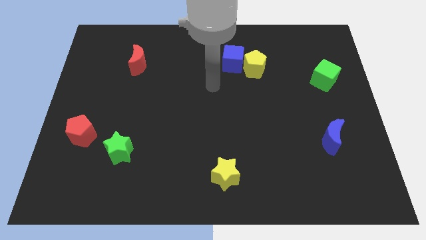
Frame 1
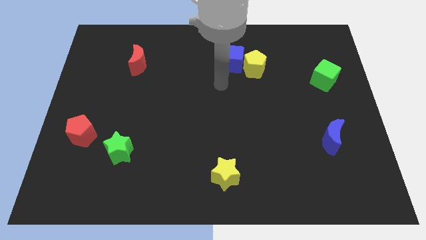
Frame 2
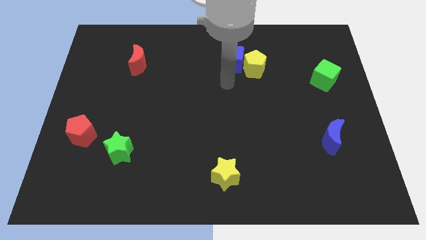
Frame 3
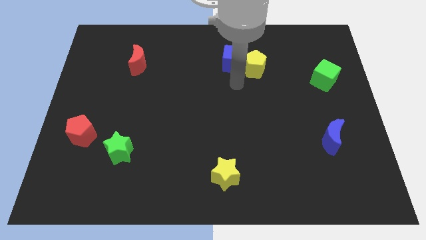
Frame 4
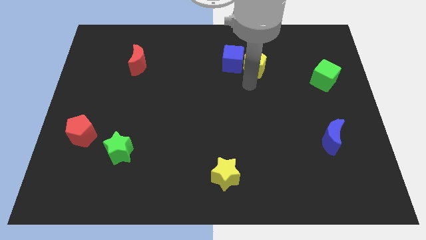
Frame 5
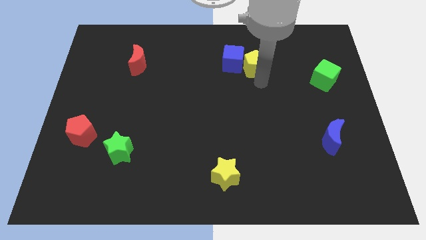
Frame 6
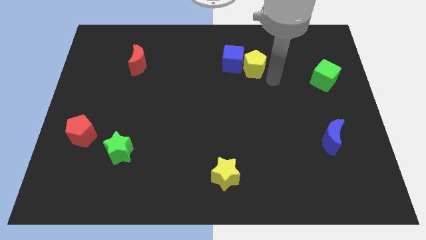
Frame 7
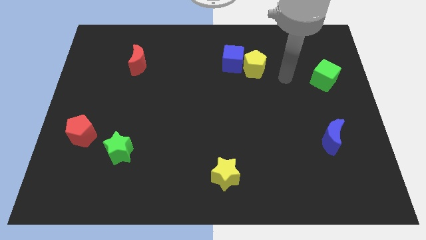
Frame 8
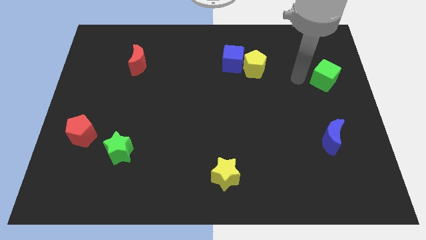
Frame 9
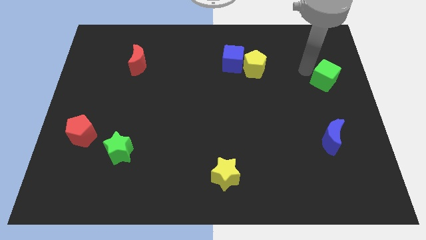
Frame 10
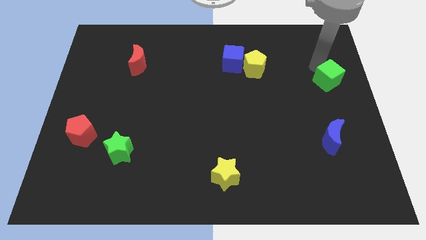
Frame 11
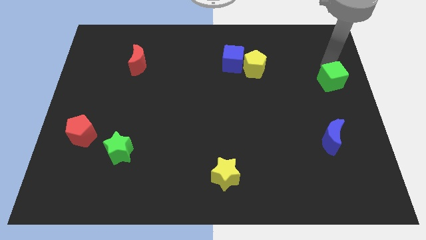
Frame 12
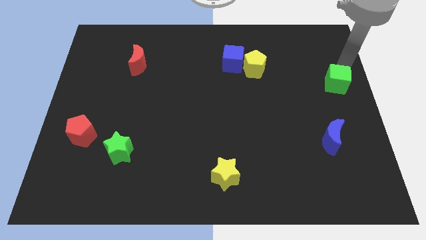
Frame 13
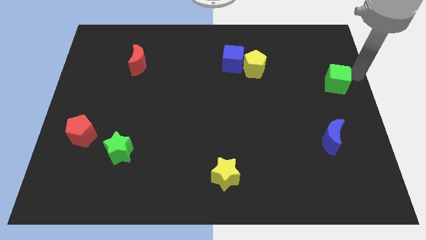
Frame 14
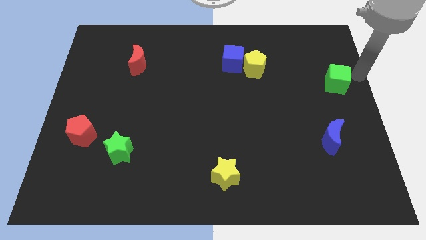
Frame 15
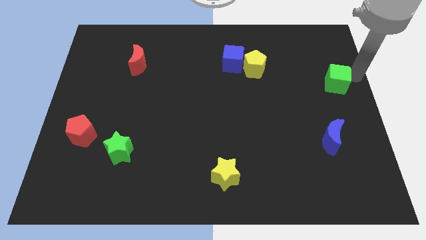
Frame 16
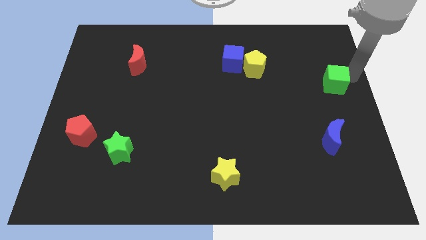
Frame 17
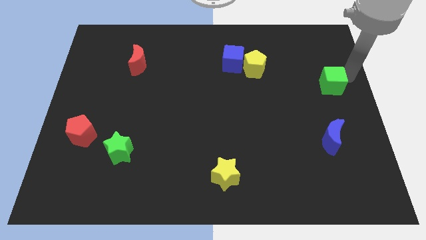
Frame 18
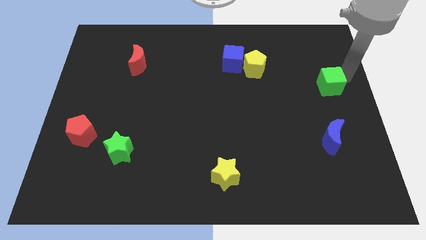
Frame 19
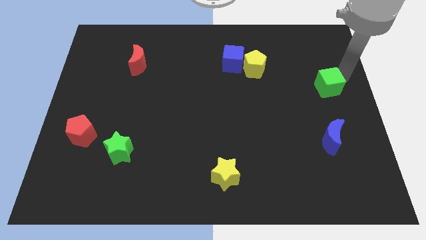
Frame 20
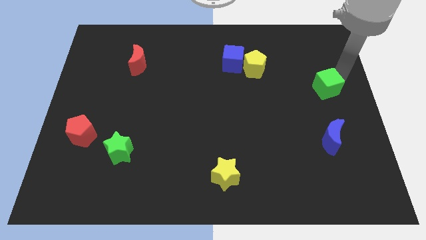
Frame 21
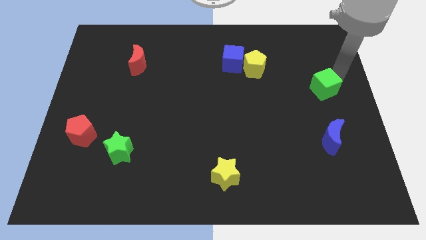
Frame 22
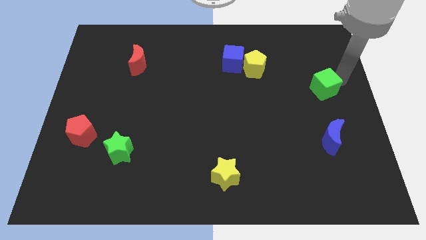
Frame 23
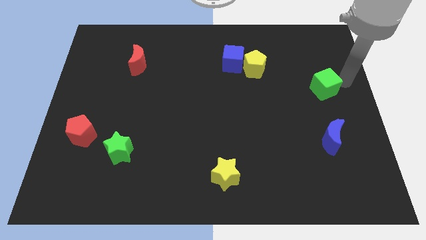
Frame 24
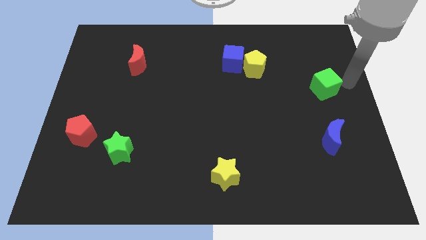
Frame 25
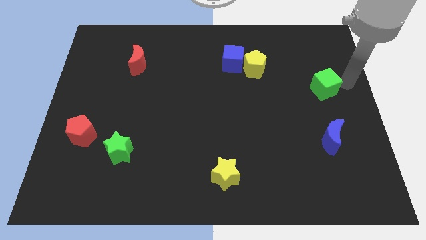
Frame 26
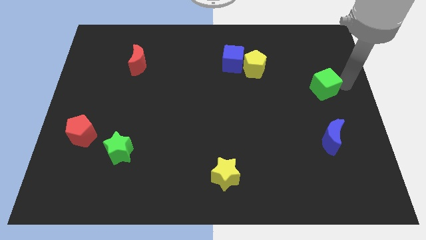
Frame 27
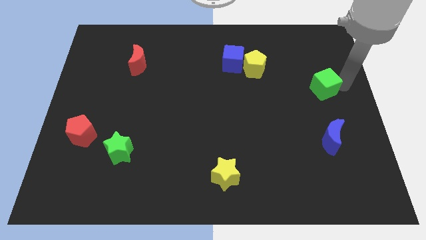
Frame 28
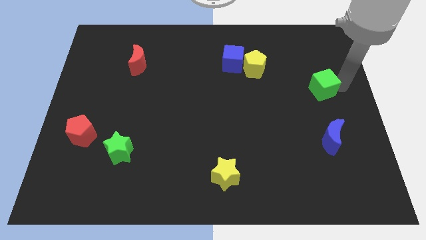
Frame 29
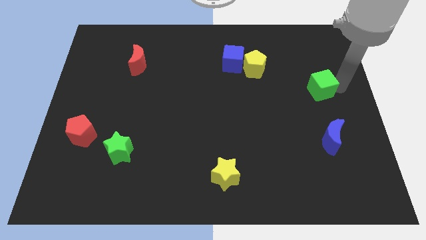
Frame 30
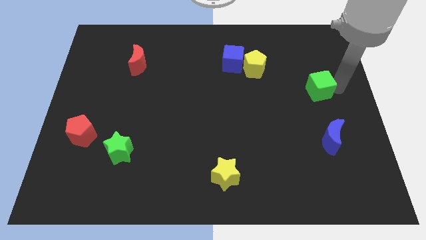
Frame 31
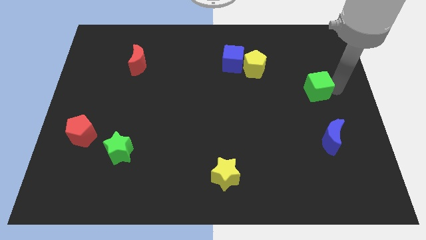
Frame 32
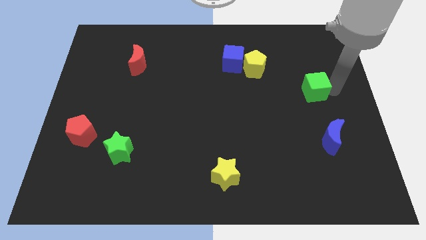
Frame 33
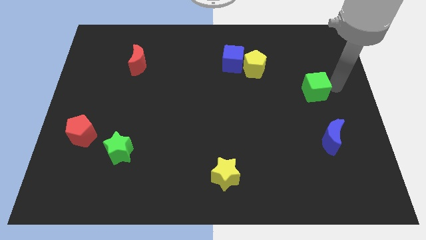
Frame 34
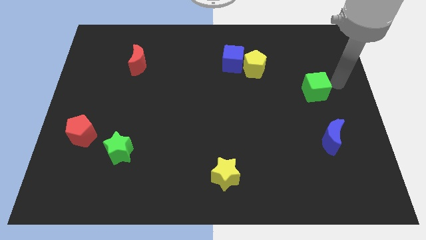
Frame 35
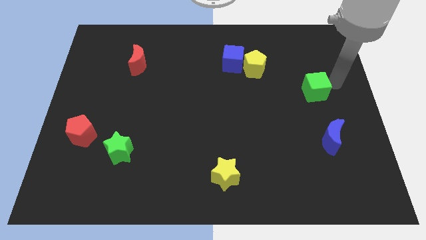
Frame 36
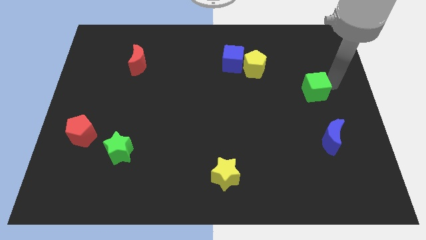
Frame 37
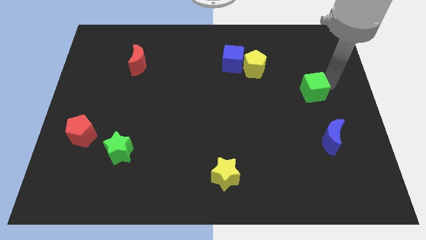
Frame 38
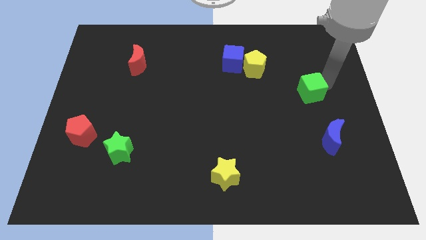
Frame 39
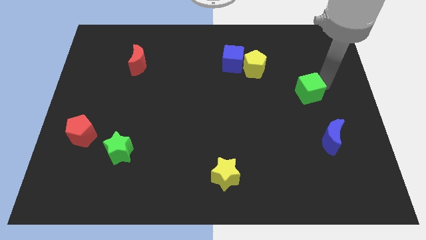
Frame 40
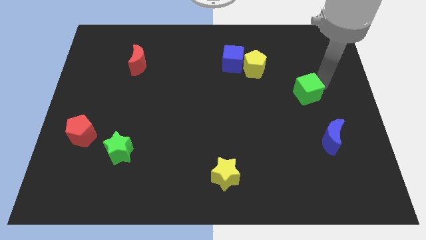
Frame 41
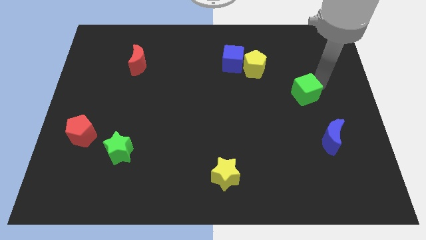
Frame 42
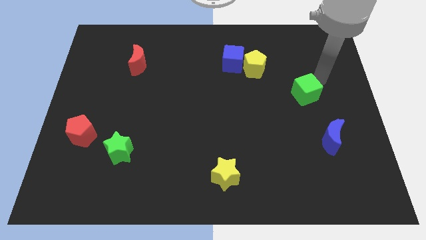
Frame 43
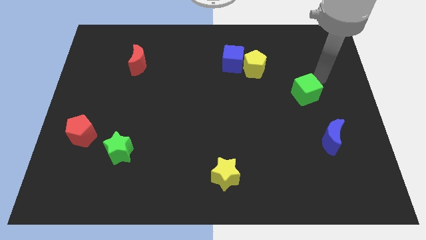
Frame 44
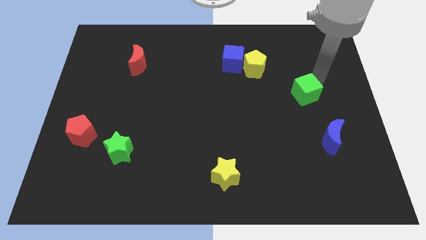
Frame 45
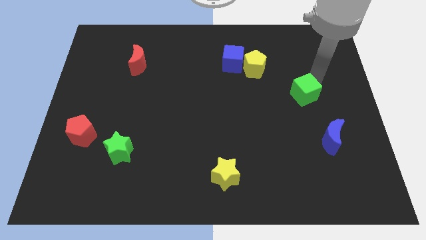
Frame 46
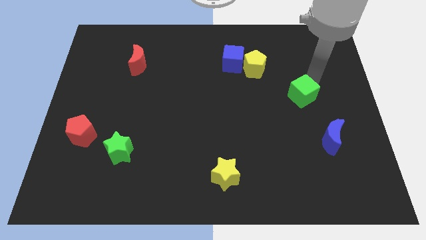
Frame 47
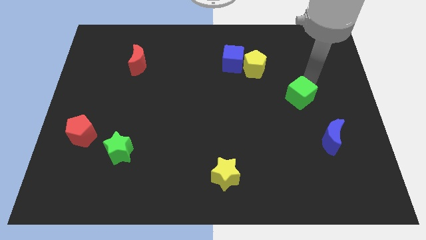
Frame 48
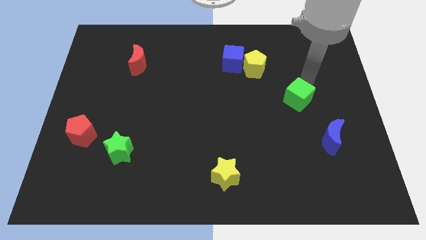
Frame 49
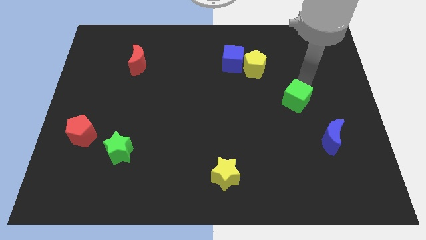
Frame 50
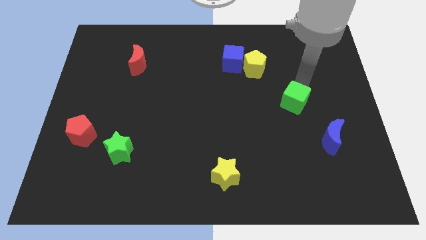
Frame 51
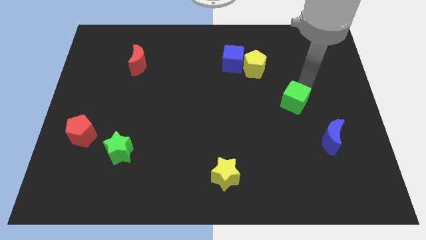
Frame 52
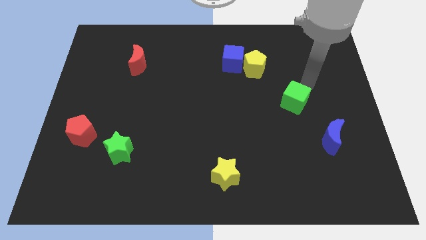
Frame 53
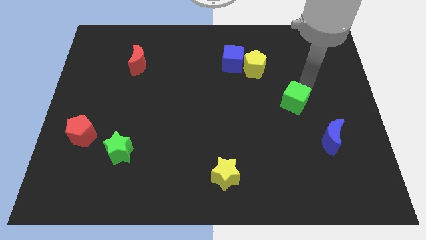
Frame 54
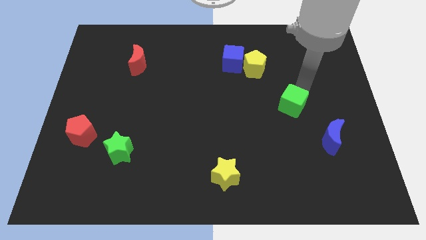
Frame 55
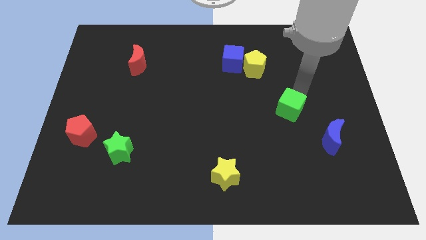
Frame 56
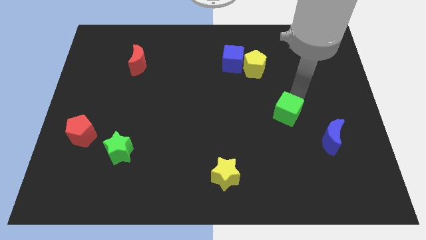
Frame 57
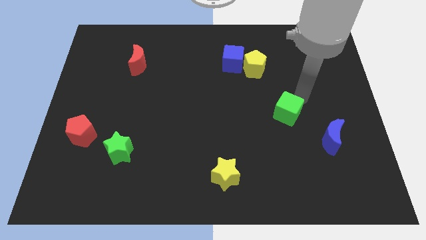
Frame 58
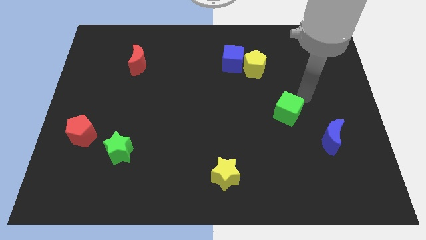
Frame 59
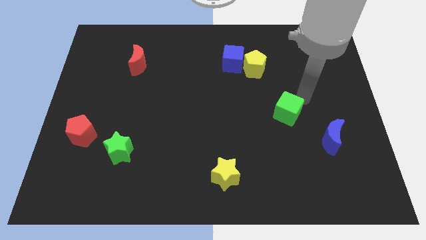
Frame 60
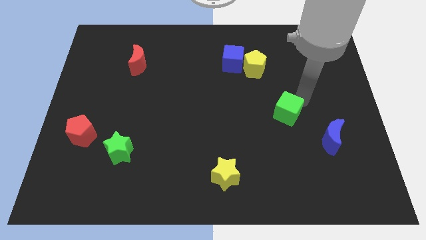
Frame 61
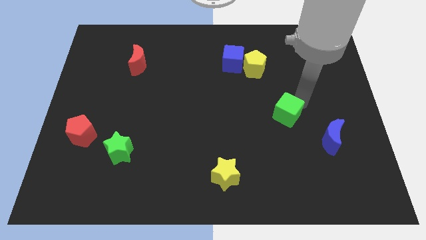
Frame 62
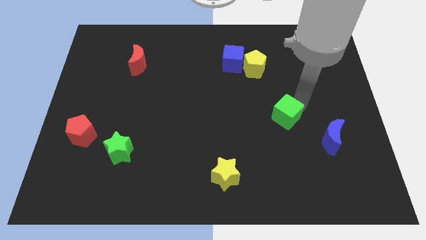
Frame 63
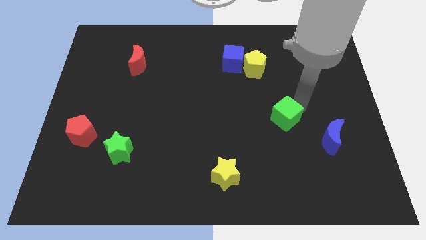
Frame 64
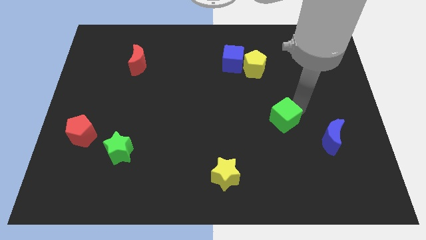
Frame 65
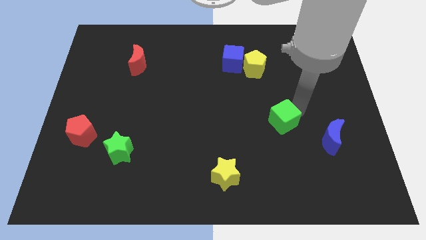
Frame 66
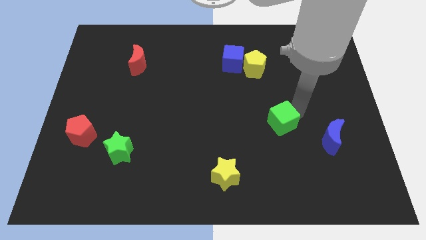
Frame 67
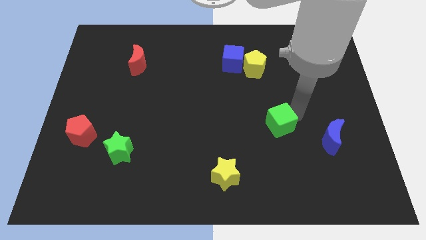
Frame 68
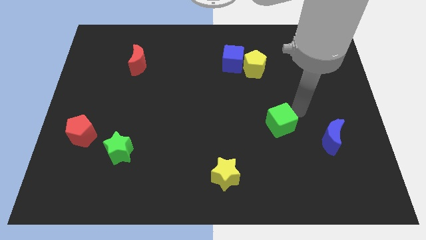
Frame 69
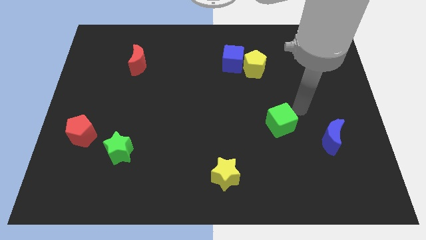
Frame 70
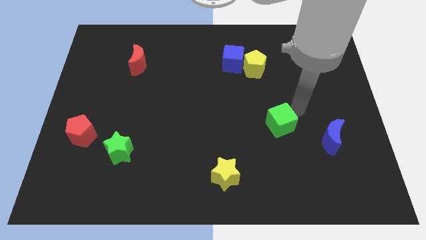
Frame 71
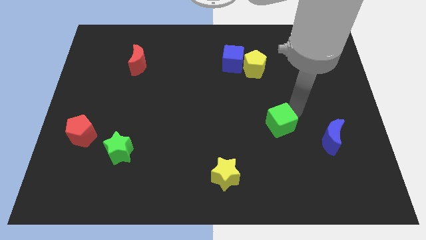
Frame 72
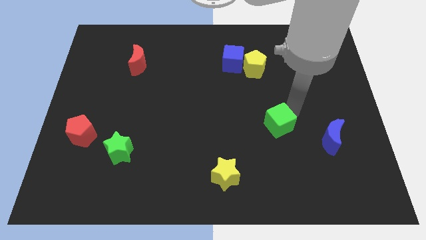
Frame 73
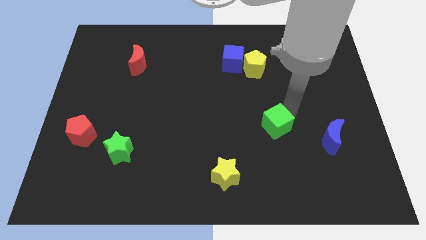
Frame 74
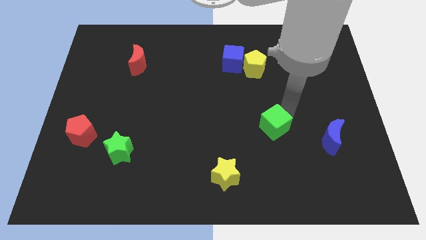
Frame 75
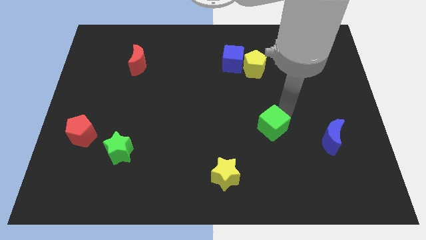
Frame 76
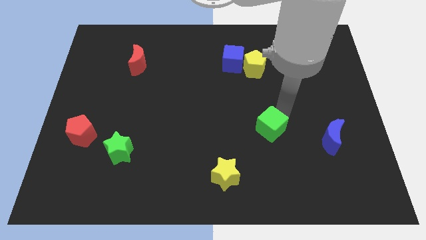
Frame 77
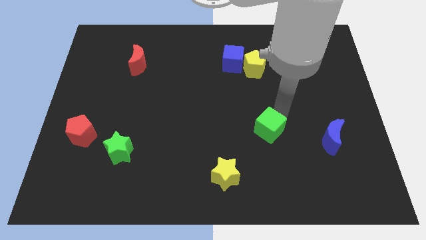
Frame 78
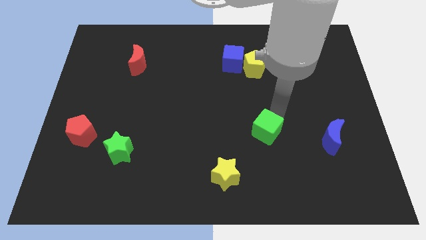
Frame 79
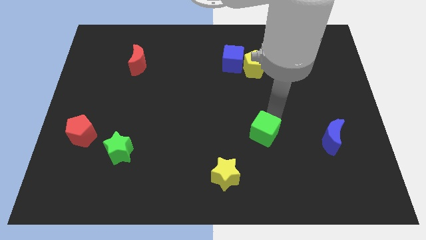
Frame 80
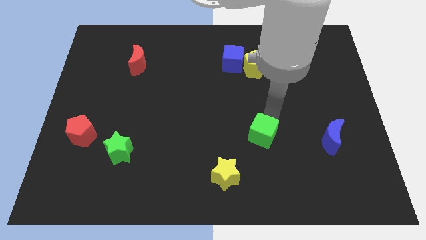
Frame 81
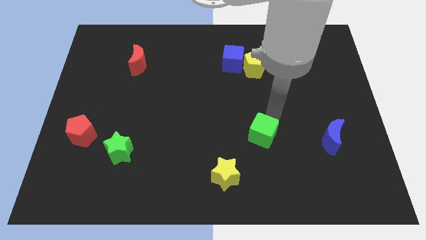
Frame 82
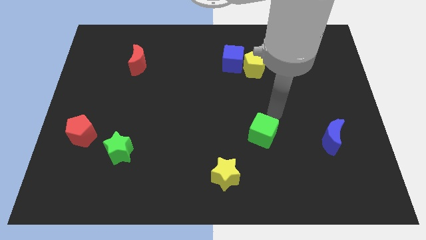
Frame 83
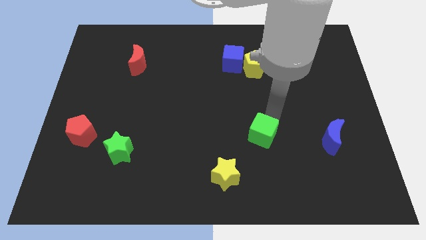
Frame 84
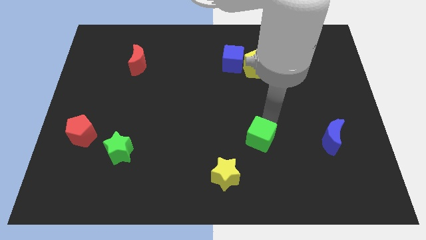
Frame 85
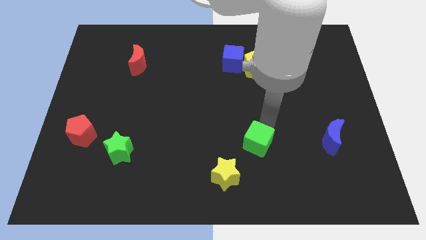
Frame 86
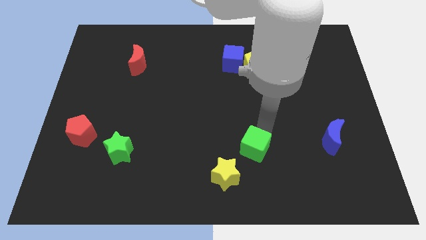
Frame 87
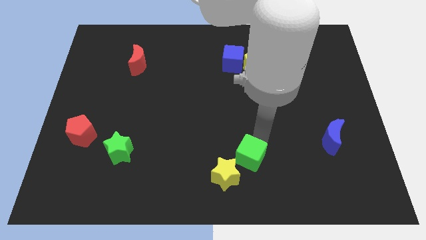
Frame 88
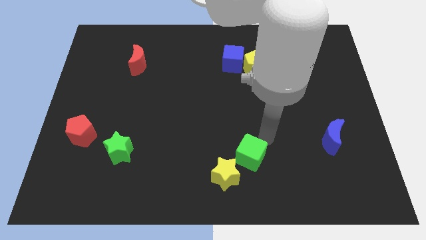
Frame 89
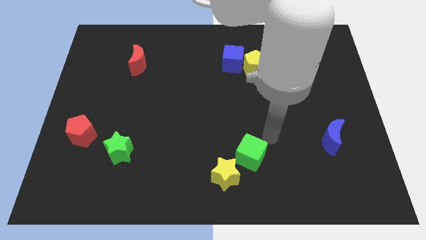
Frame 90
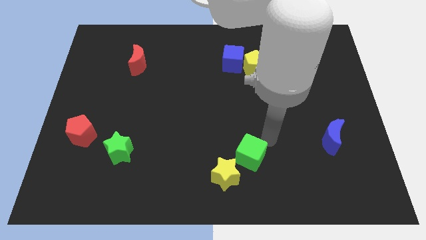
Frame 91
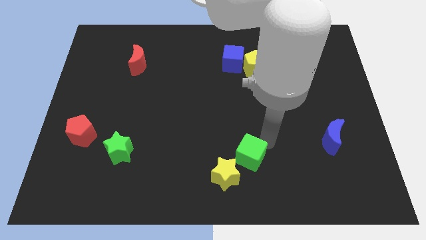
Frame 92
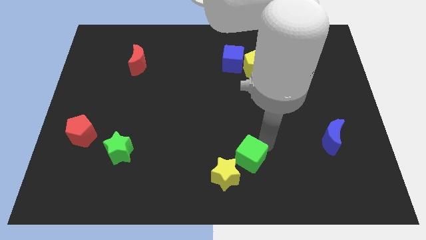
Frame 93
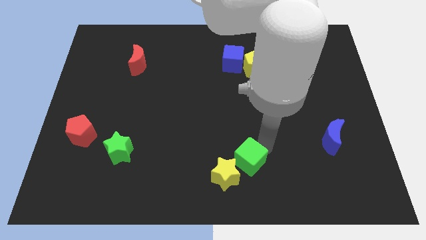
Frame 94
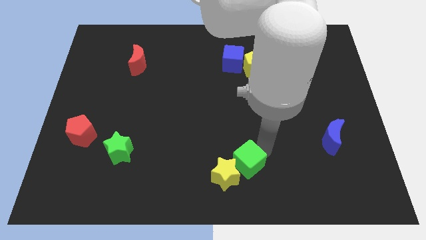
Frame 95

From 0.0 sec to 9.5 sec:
push the green cube to the yellow star
